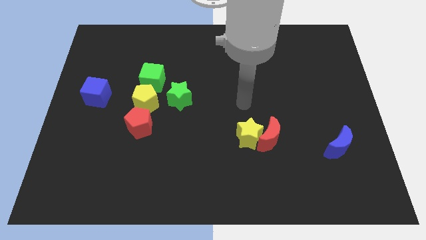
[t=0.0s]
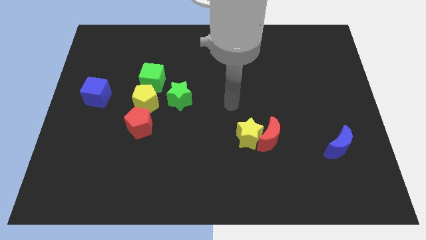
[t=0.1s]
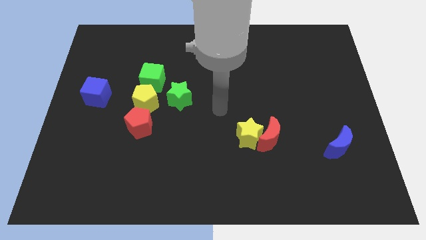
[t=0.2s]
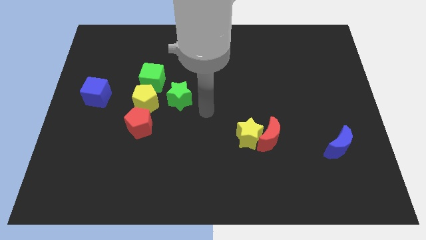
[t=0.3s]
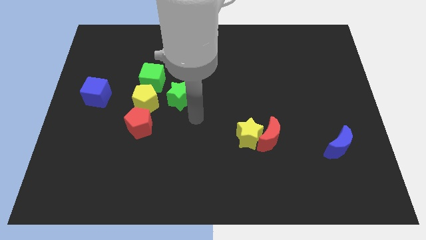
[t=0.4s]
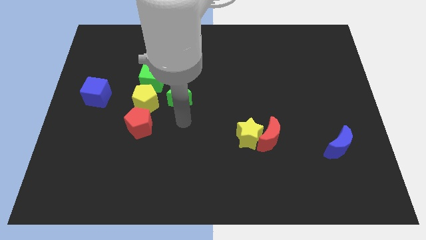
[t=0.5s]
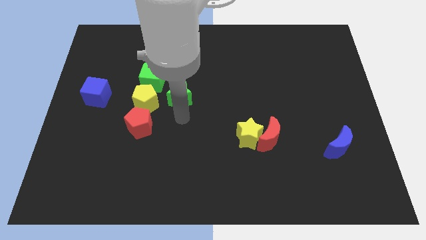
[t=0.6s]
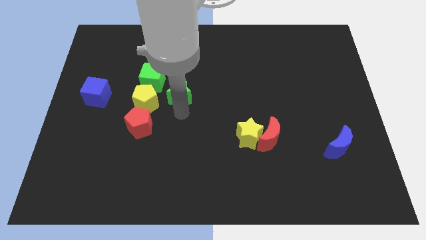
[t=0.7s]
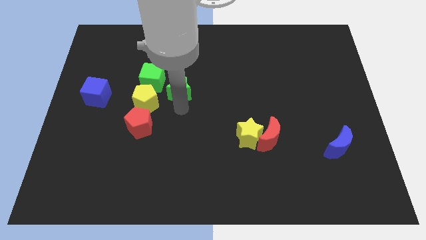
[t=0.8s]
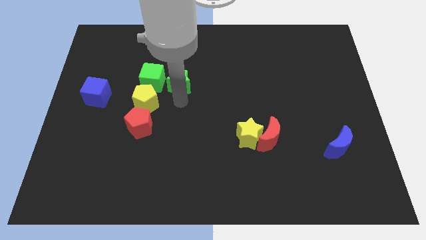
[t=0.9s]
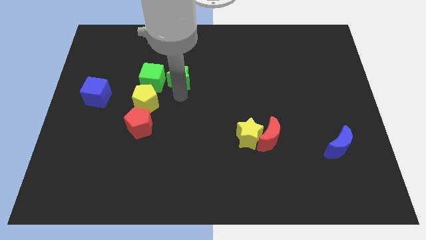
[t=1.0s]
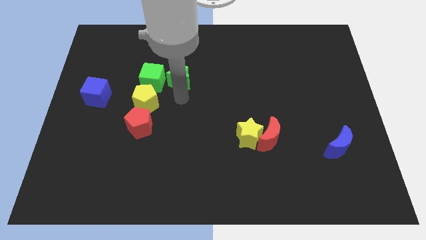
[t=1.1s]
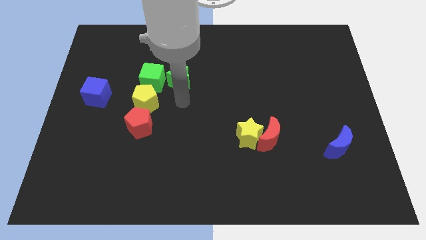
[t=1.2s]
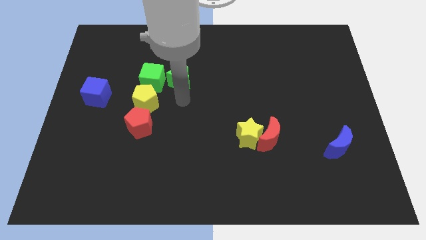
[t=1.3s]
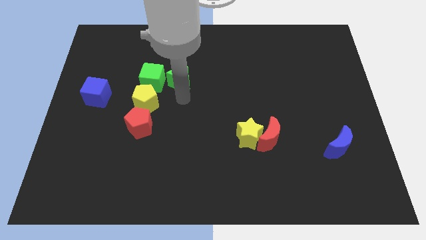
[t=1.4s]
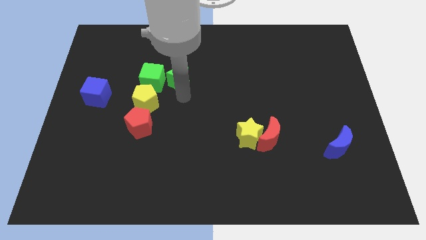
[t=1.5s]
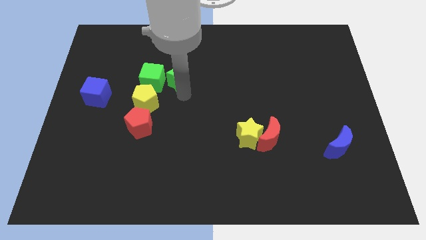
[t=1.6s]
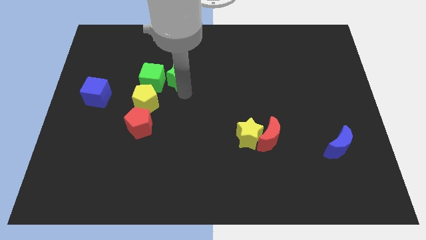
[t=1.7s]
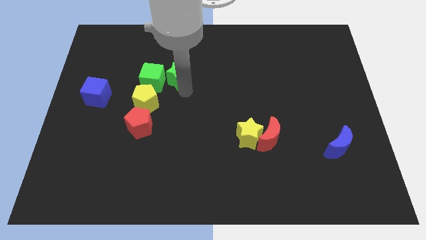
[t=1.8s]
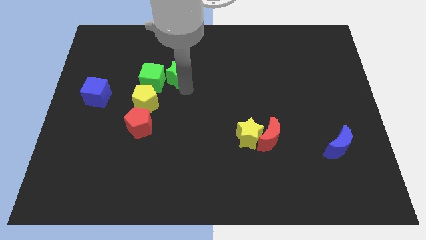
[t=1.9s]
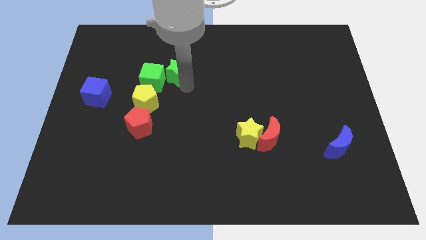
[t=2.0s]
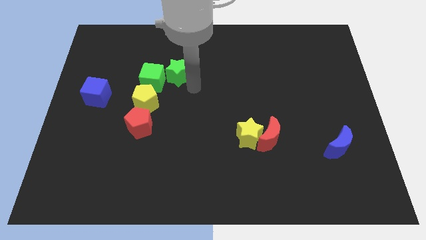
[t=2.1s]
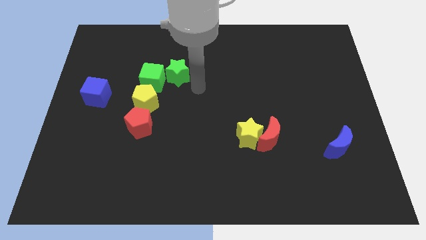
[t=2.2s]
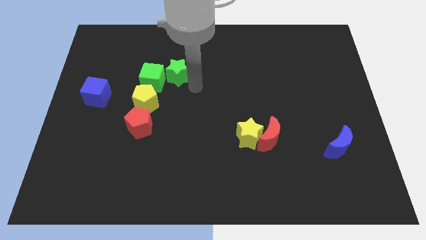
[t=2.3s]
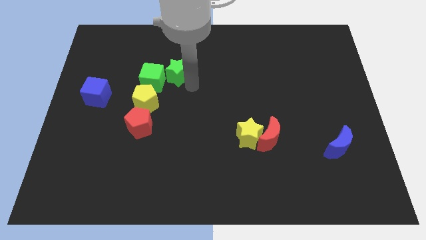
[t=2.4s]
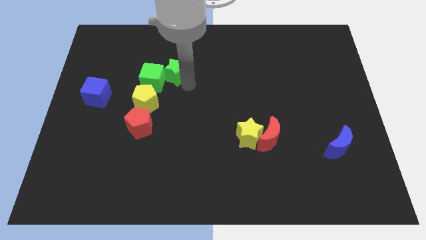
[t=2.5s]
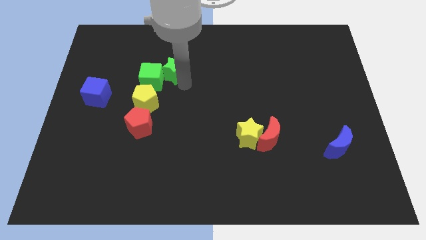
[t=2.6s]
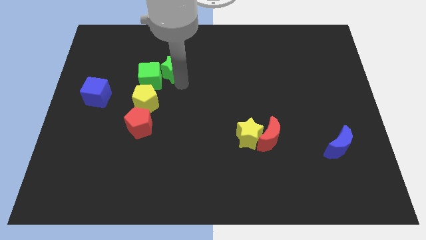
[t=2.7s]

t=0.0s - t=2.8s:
slightly slide the green star up and then left

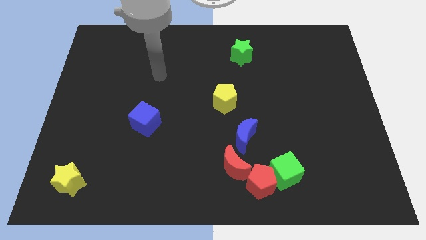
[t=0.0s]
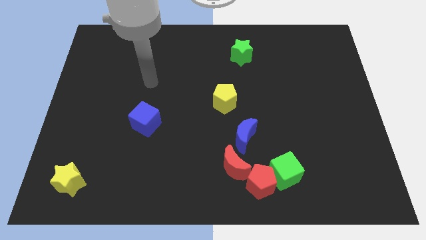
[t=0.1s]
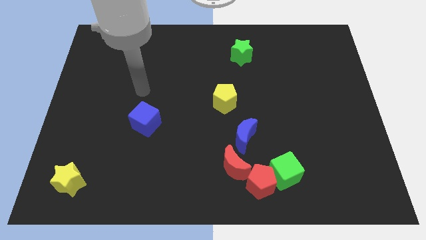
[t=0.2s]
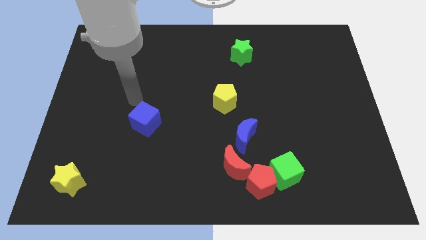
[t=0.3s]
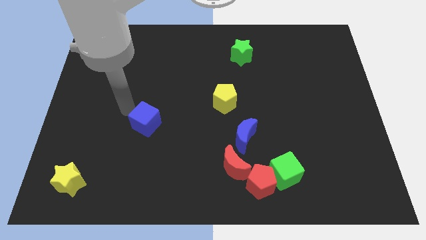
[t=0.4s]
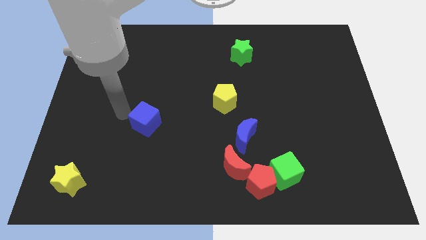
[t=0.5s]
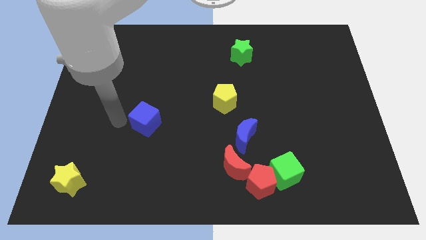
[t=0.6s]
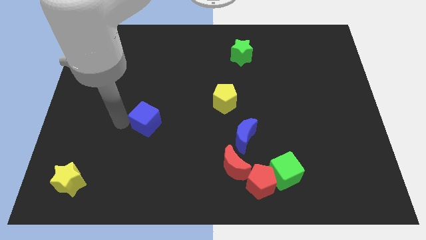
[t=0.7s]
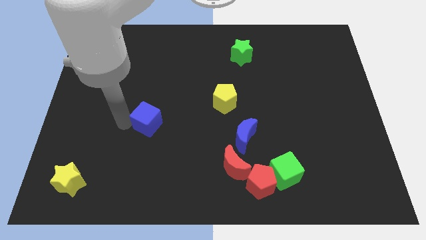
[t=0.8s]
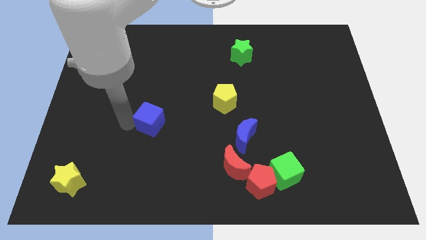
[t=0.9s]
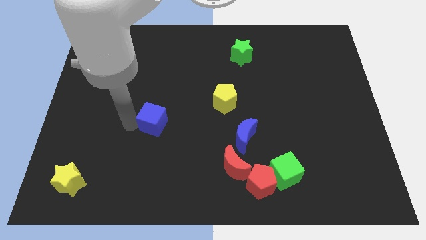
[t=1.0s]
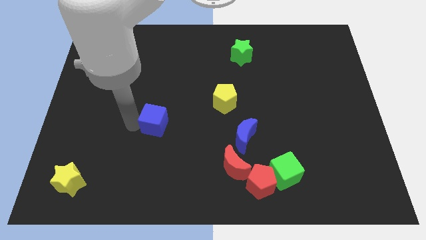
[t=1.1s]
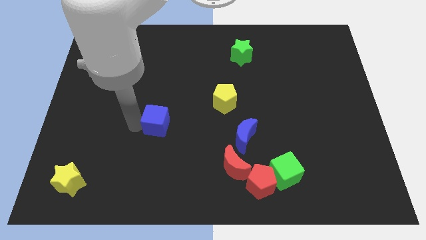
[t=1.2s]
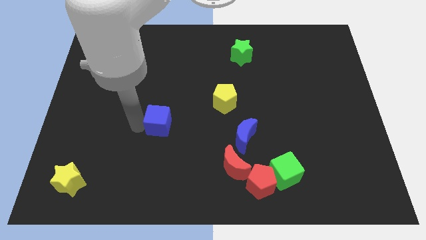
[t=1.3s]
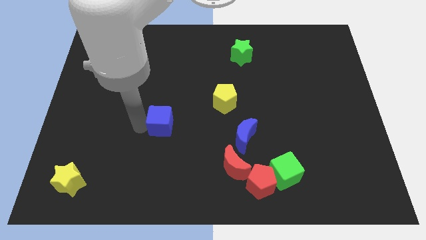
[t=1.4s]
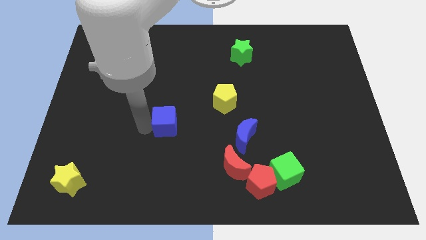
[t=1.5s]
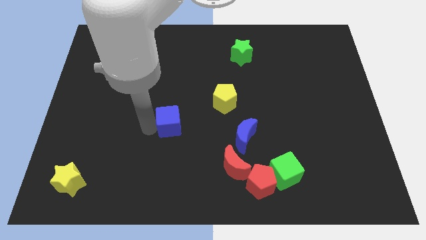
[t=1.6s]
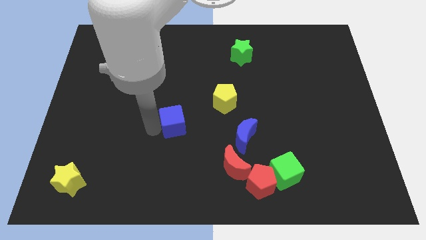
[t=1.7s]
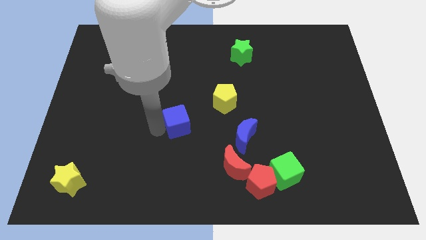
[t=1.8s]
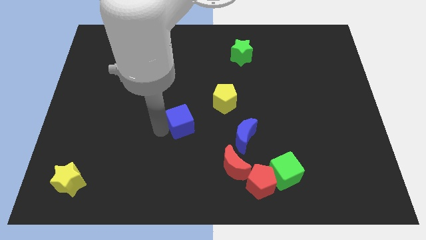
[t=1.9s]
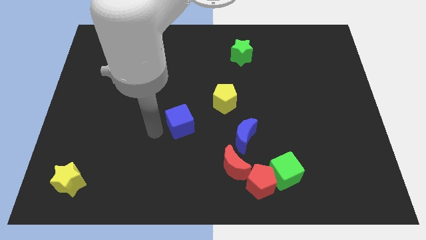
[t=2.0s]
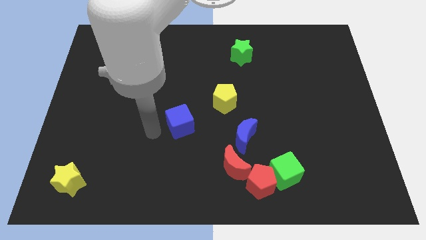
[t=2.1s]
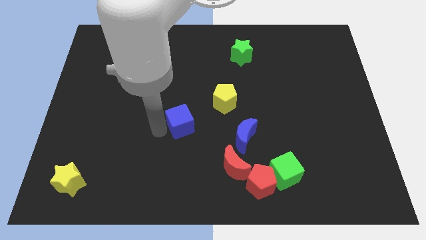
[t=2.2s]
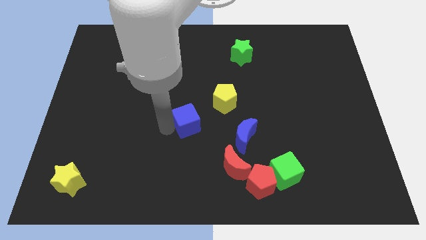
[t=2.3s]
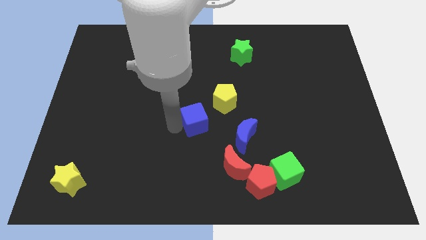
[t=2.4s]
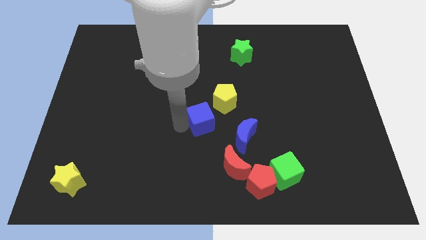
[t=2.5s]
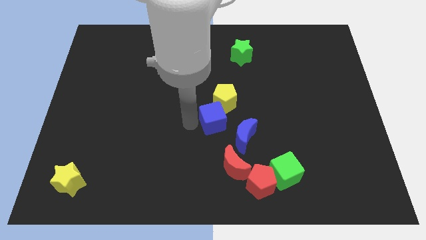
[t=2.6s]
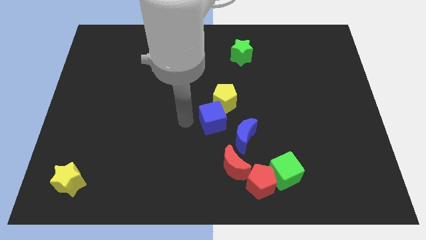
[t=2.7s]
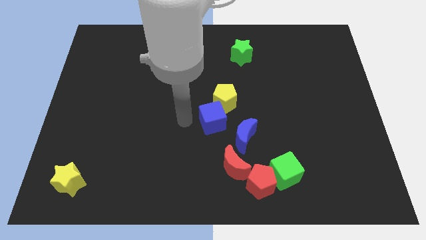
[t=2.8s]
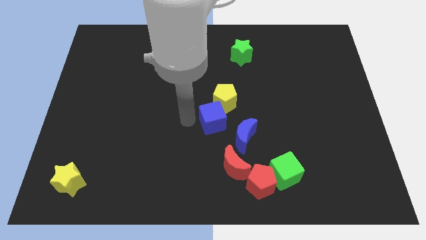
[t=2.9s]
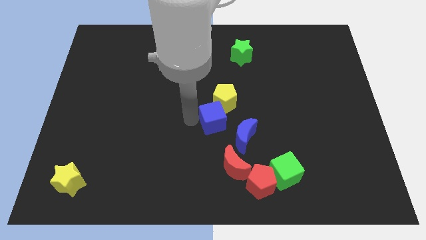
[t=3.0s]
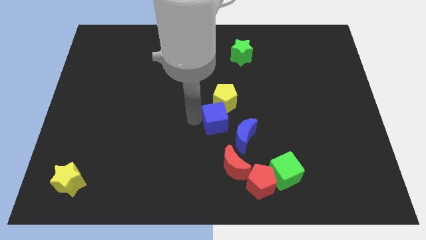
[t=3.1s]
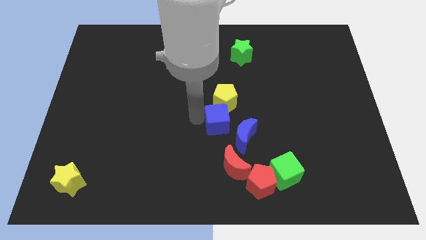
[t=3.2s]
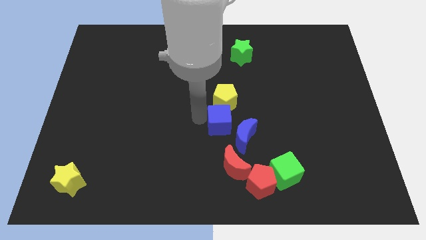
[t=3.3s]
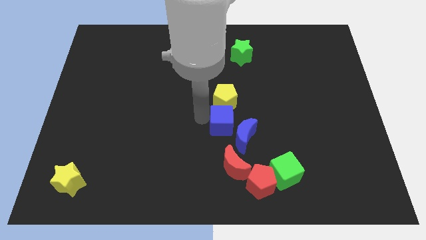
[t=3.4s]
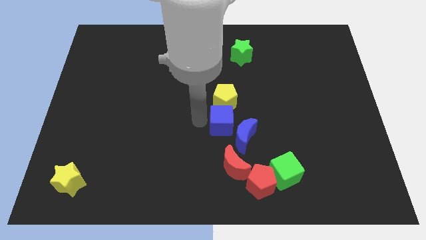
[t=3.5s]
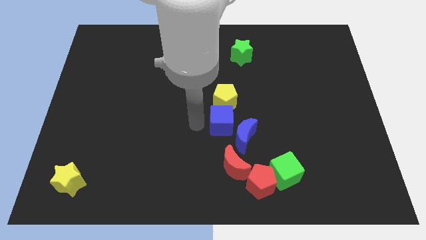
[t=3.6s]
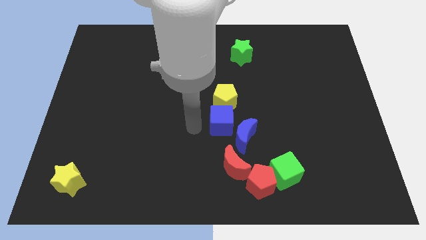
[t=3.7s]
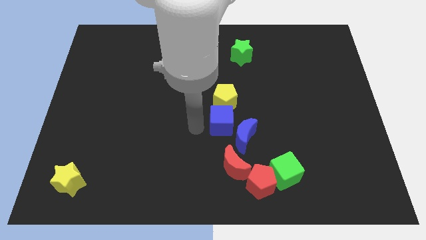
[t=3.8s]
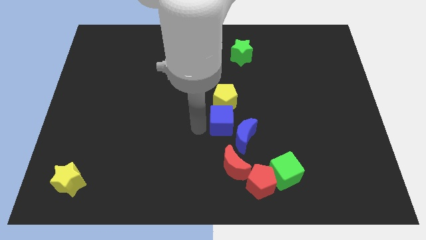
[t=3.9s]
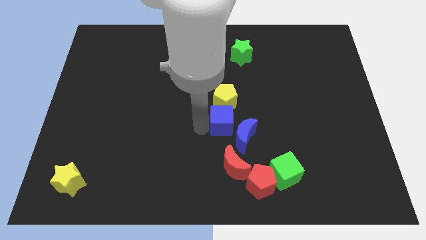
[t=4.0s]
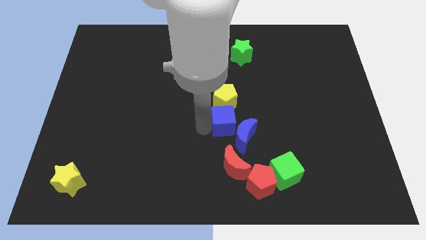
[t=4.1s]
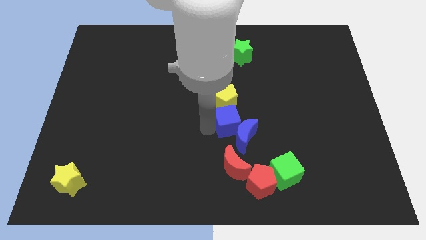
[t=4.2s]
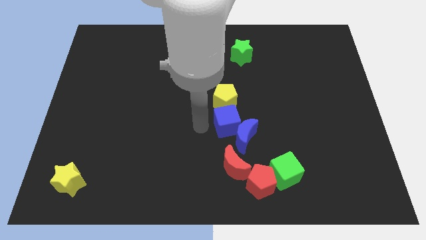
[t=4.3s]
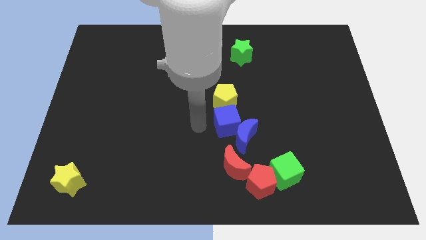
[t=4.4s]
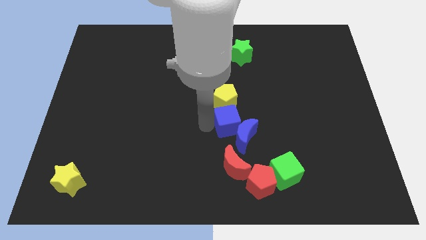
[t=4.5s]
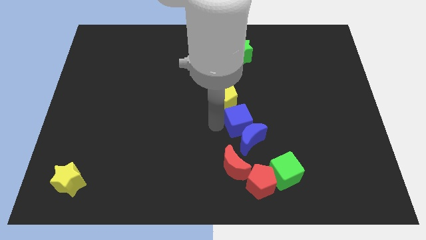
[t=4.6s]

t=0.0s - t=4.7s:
move the blue cube to the right

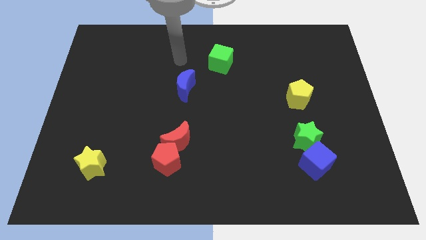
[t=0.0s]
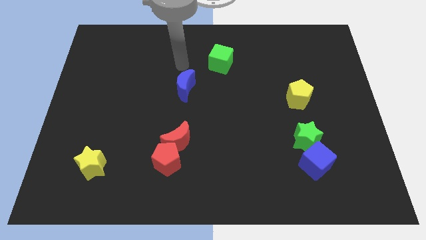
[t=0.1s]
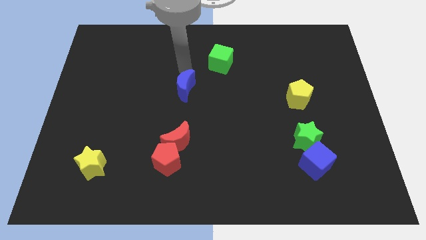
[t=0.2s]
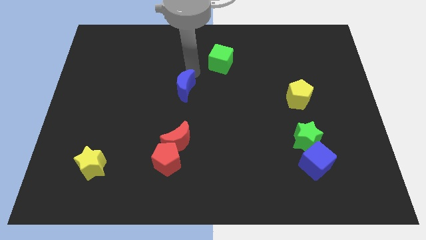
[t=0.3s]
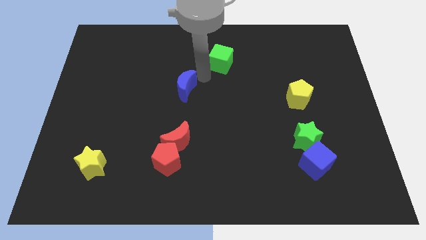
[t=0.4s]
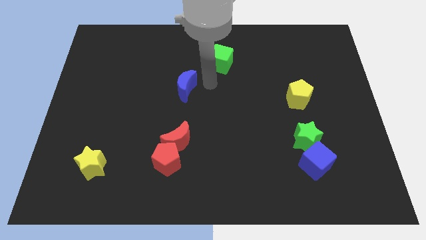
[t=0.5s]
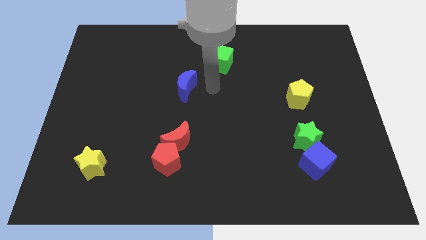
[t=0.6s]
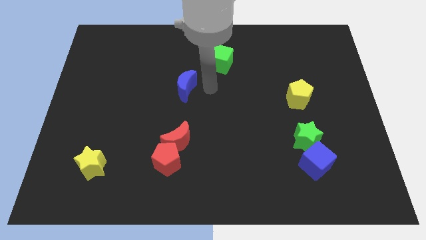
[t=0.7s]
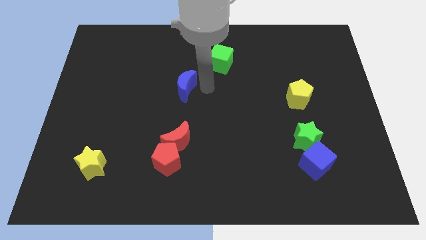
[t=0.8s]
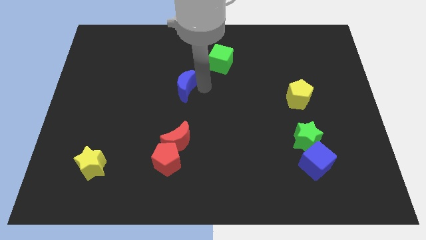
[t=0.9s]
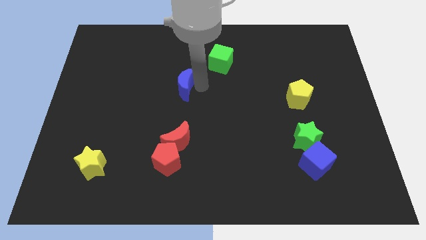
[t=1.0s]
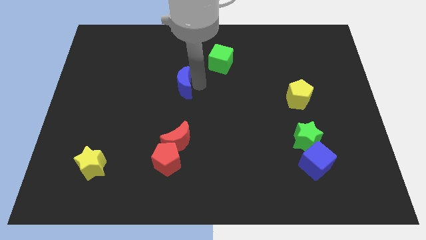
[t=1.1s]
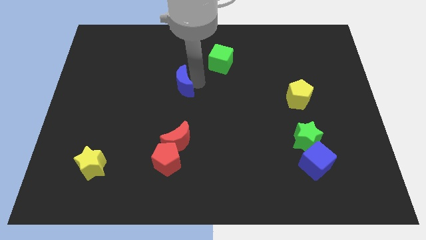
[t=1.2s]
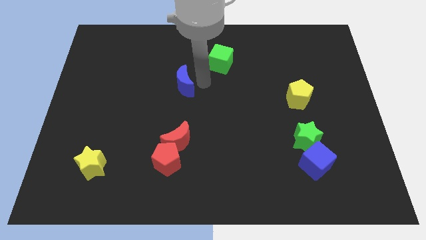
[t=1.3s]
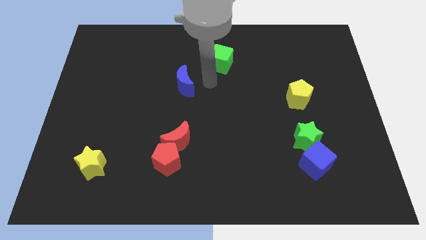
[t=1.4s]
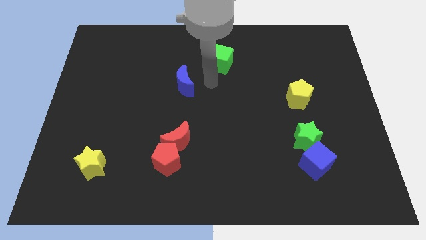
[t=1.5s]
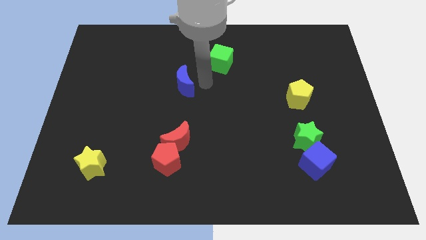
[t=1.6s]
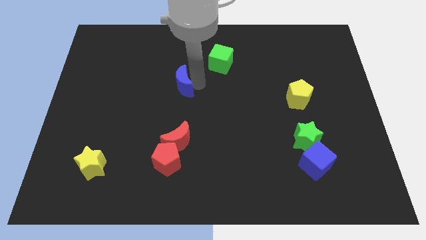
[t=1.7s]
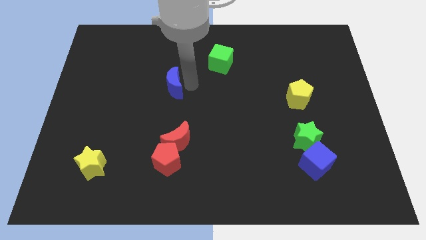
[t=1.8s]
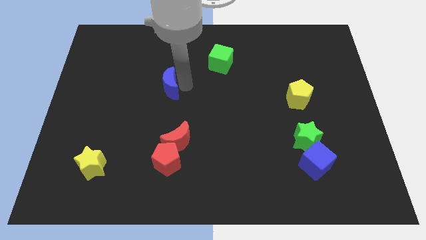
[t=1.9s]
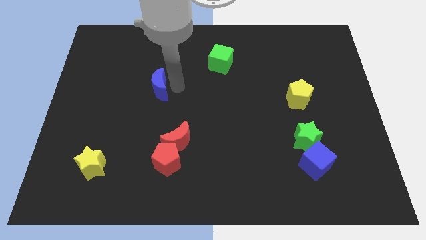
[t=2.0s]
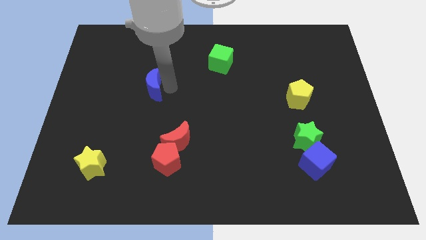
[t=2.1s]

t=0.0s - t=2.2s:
move the blue moon left a bit
